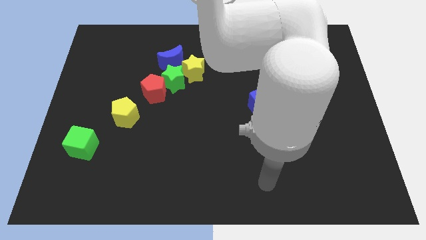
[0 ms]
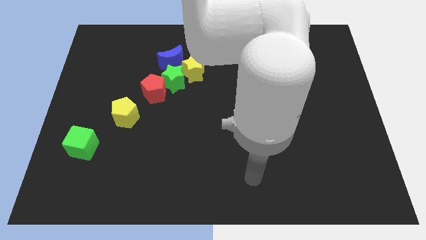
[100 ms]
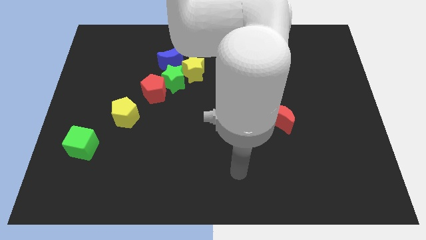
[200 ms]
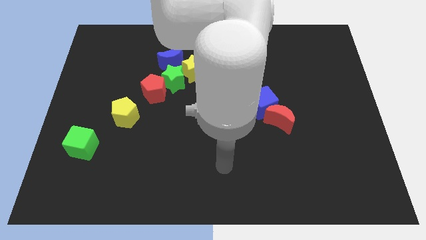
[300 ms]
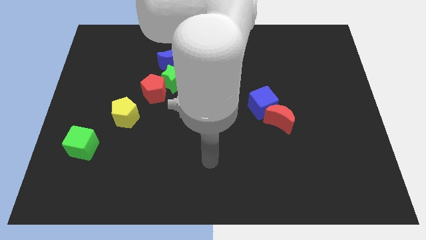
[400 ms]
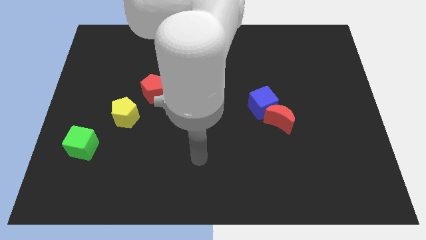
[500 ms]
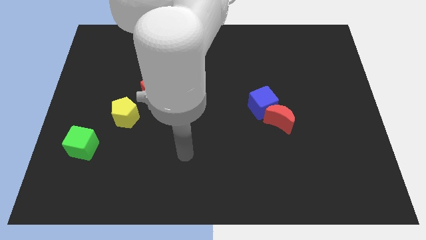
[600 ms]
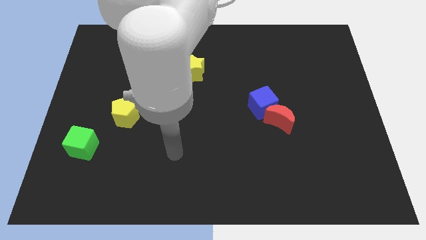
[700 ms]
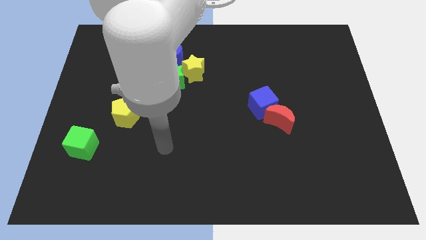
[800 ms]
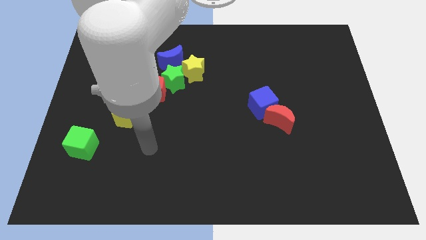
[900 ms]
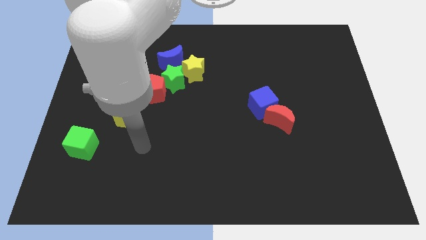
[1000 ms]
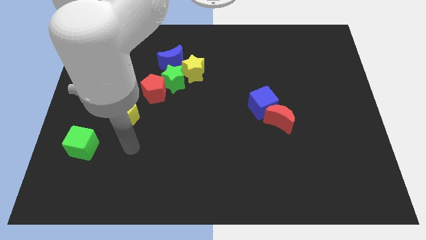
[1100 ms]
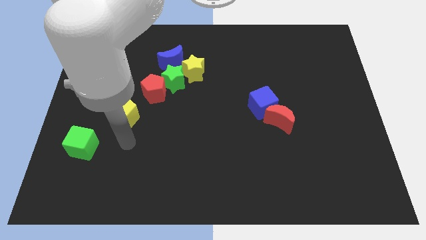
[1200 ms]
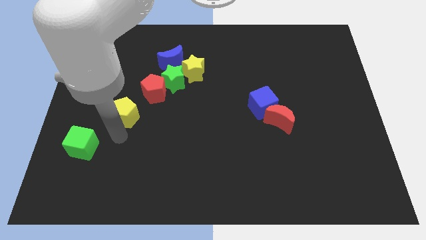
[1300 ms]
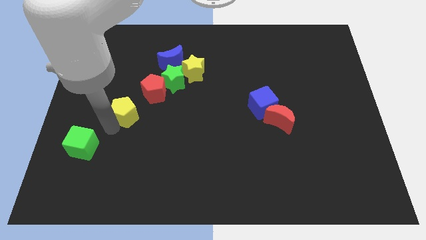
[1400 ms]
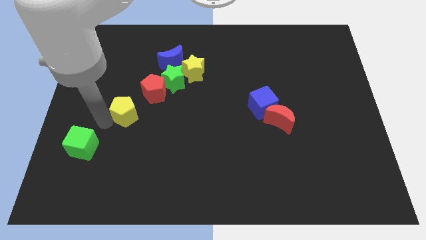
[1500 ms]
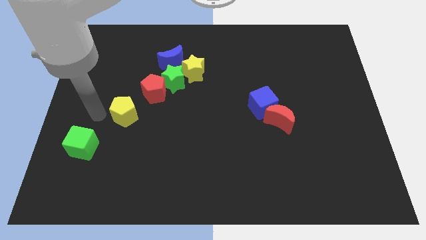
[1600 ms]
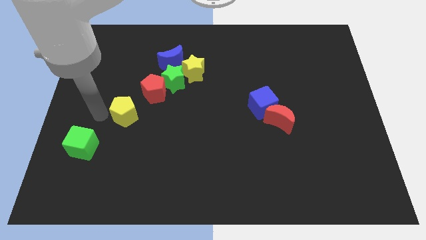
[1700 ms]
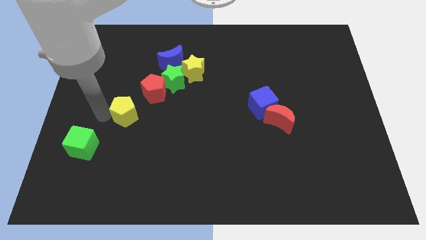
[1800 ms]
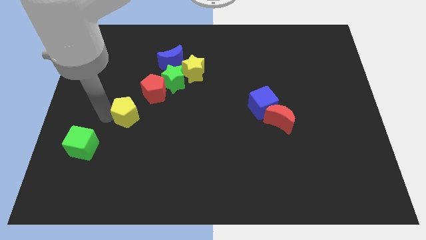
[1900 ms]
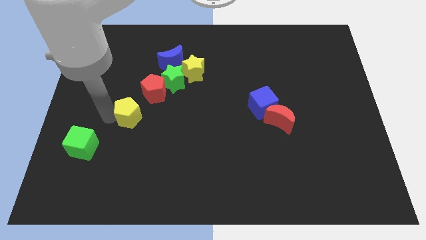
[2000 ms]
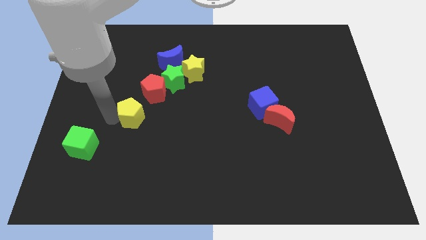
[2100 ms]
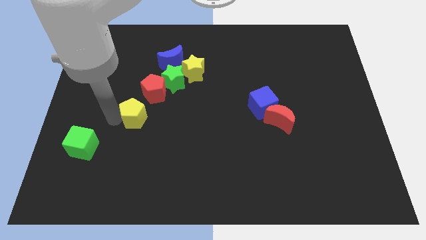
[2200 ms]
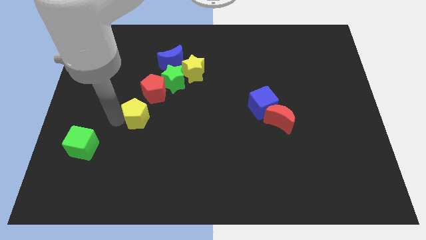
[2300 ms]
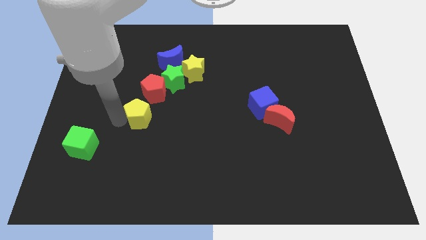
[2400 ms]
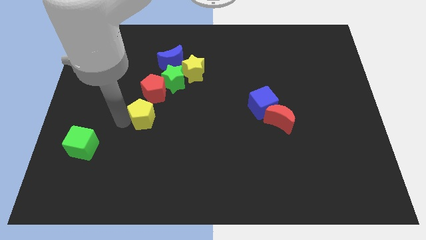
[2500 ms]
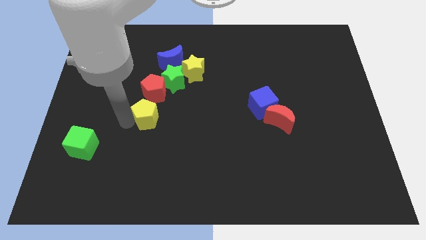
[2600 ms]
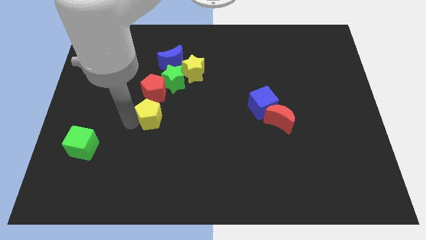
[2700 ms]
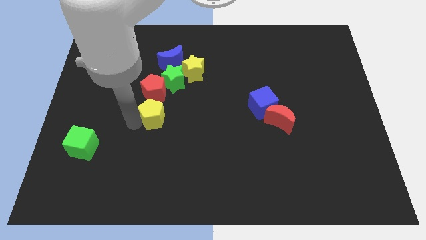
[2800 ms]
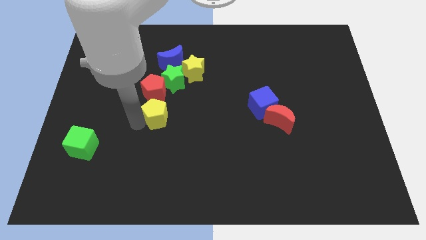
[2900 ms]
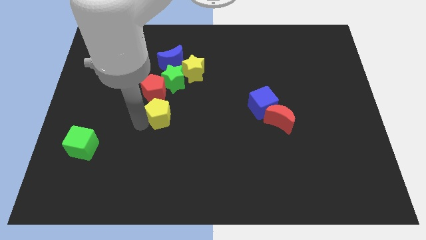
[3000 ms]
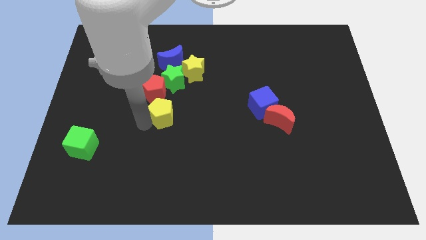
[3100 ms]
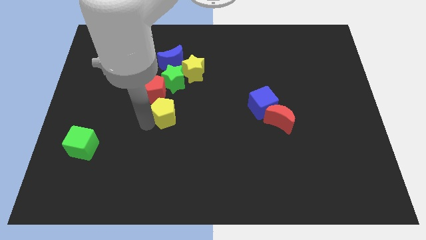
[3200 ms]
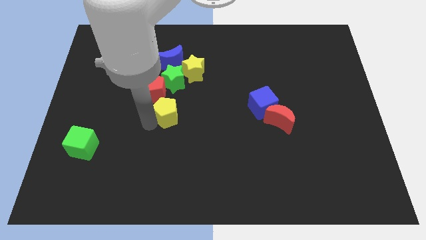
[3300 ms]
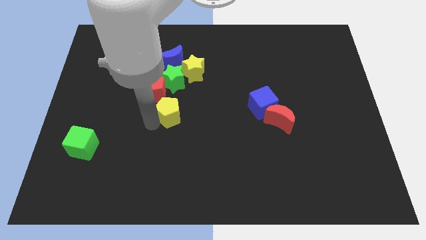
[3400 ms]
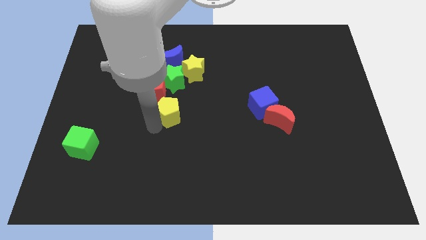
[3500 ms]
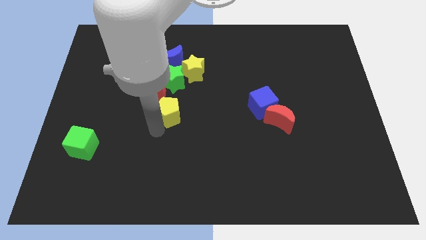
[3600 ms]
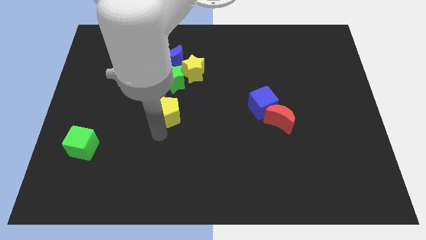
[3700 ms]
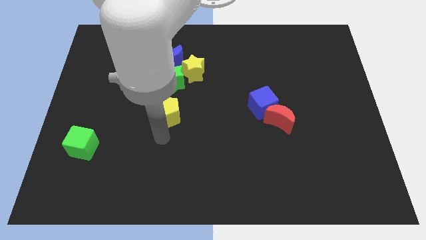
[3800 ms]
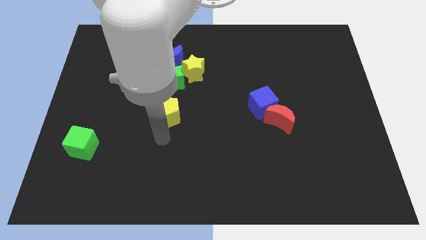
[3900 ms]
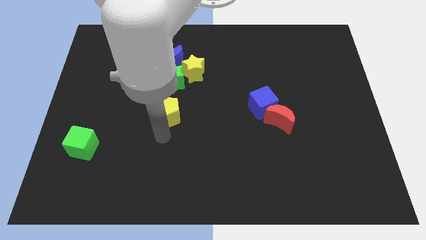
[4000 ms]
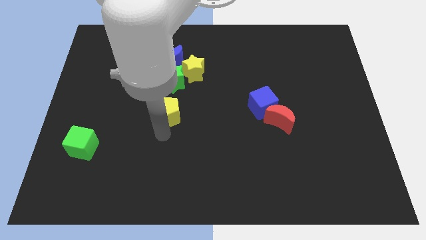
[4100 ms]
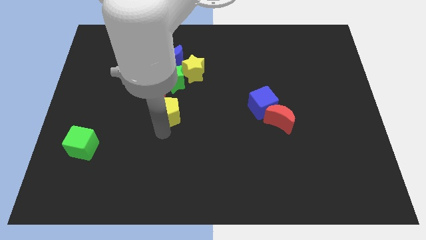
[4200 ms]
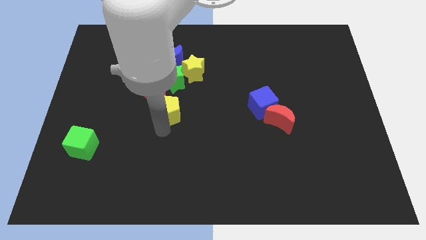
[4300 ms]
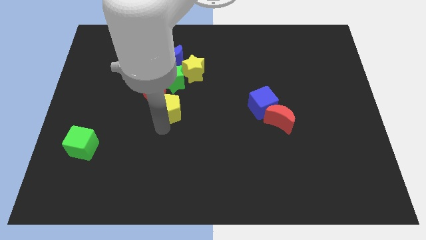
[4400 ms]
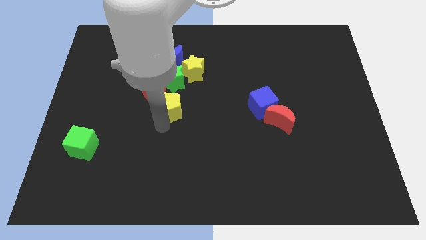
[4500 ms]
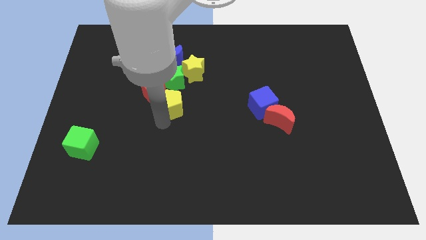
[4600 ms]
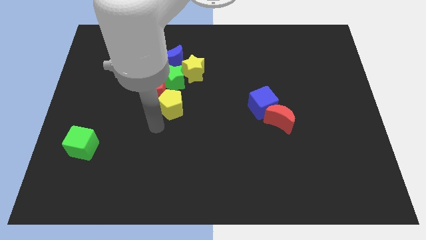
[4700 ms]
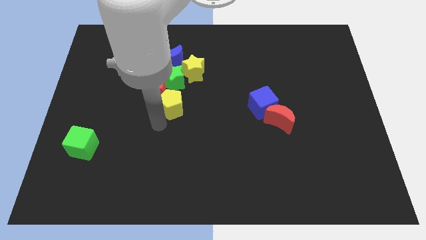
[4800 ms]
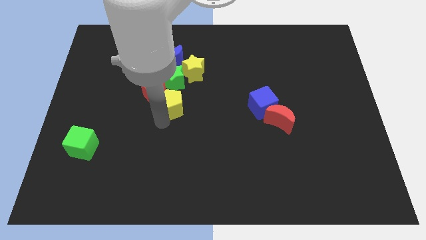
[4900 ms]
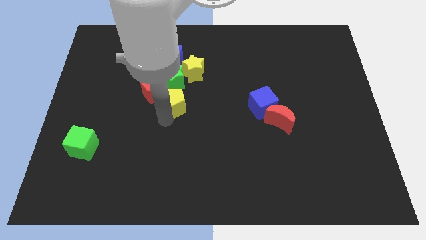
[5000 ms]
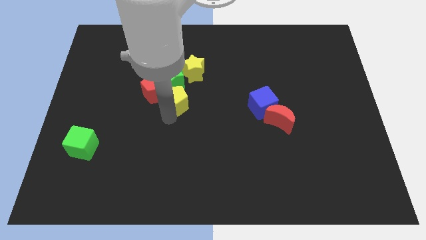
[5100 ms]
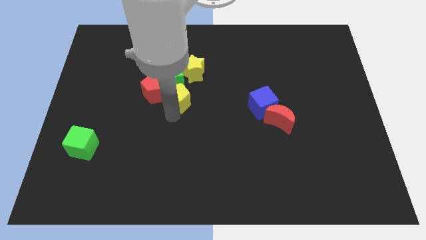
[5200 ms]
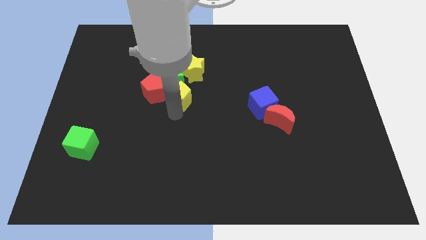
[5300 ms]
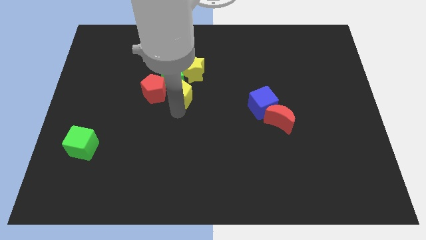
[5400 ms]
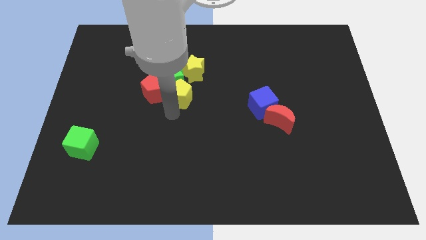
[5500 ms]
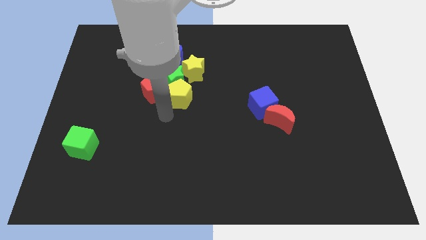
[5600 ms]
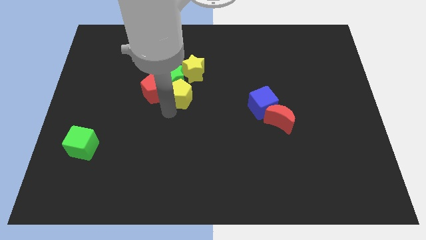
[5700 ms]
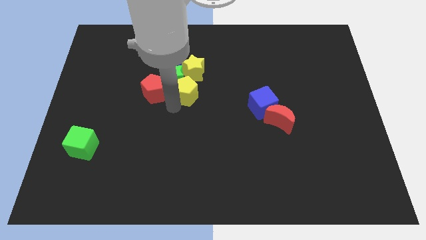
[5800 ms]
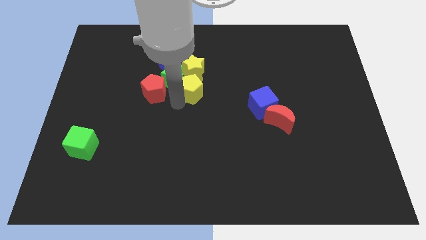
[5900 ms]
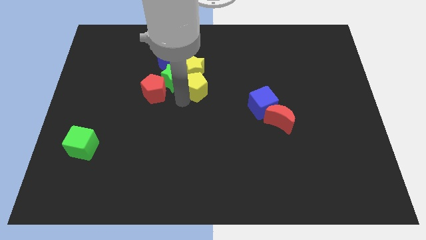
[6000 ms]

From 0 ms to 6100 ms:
put the yellow pentagon close to the yellow star

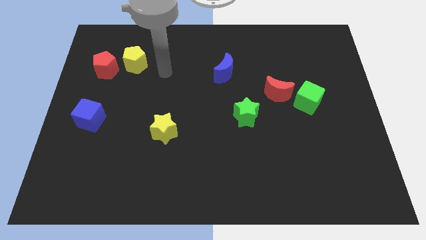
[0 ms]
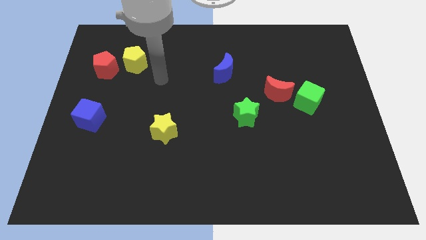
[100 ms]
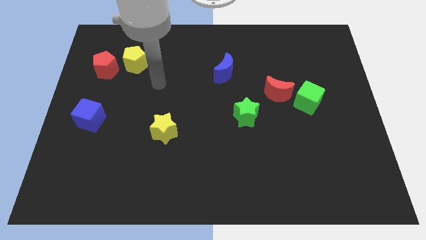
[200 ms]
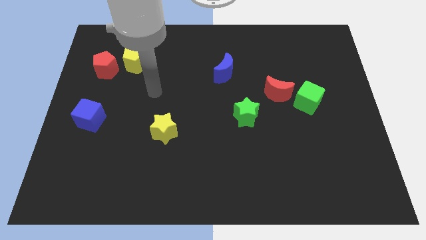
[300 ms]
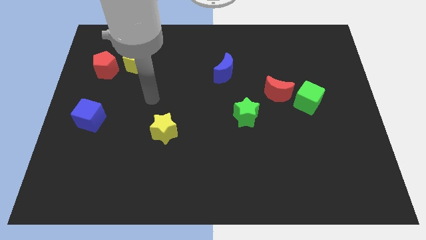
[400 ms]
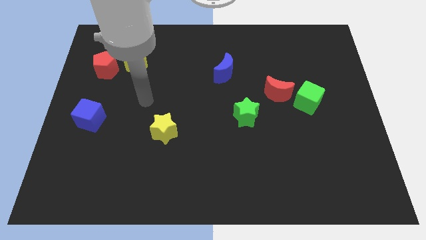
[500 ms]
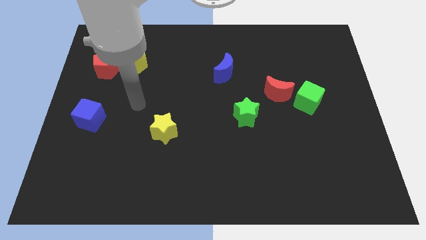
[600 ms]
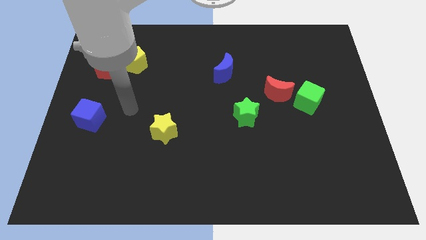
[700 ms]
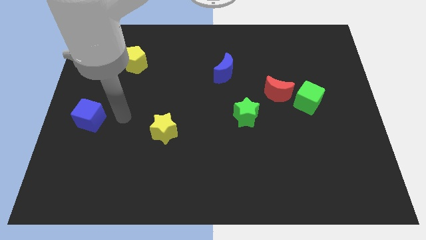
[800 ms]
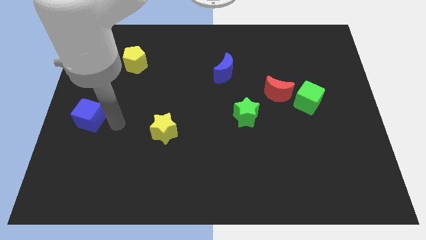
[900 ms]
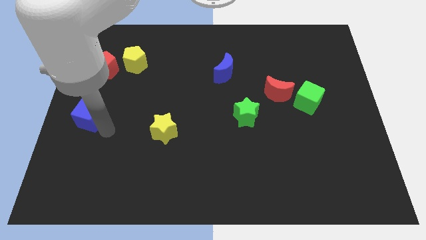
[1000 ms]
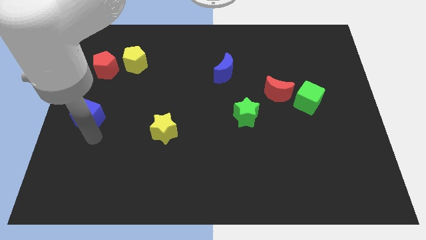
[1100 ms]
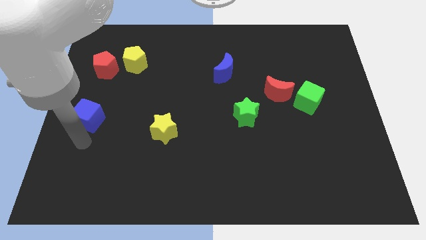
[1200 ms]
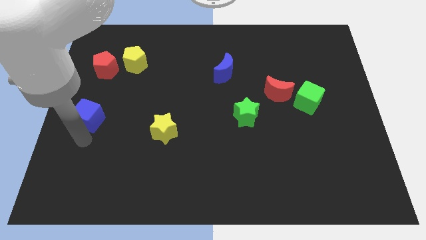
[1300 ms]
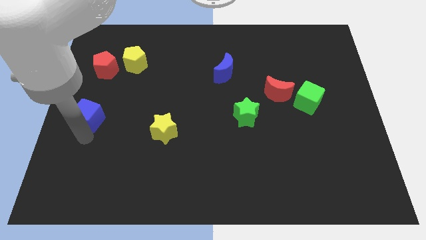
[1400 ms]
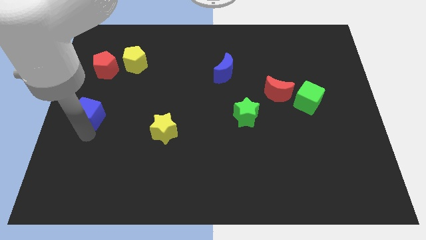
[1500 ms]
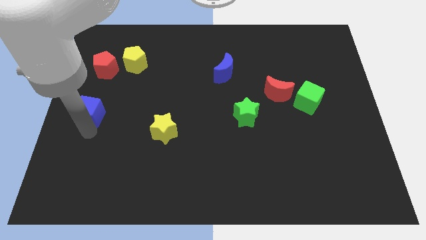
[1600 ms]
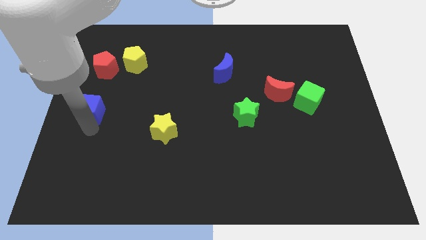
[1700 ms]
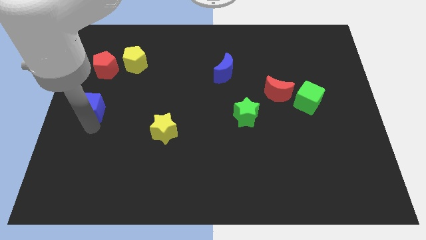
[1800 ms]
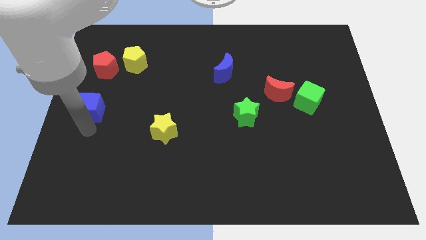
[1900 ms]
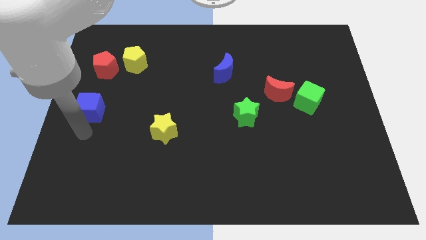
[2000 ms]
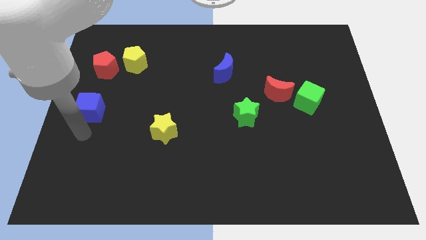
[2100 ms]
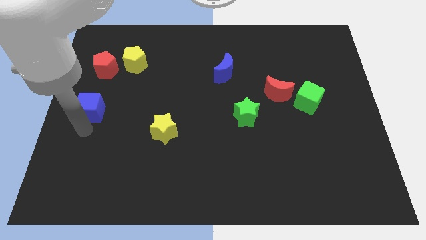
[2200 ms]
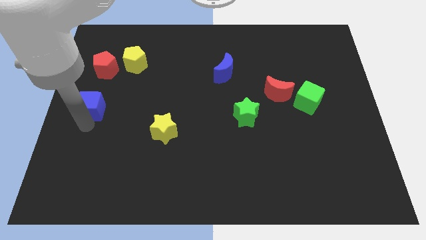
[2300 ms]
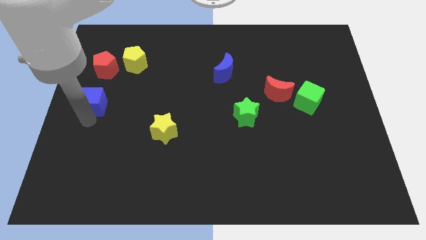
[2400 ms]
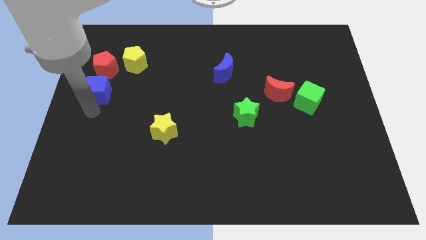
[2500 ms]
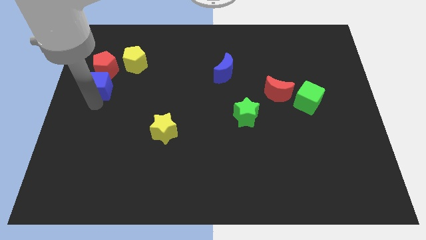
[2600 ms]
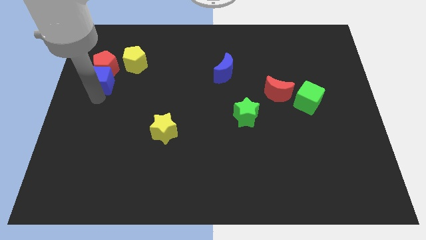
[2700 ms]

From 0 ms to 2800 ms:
move the blue cube towards the red pentagon
